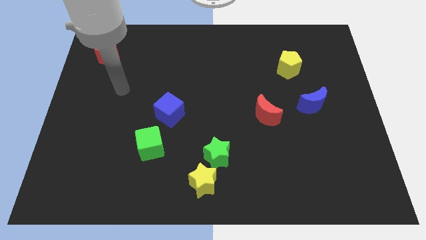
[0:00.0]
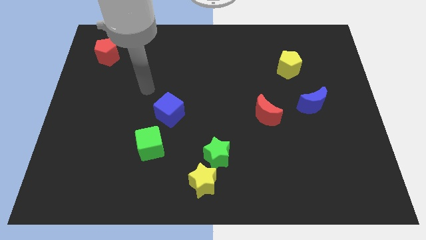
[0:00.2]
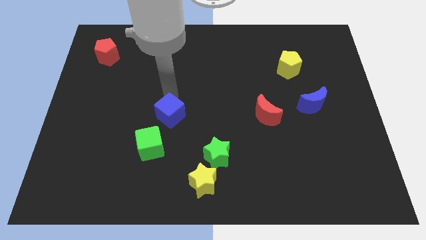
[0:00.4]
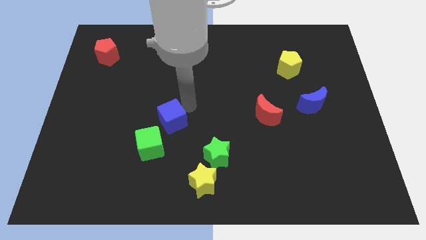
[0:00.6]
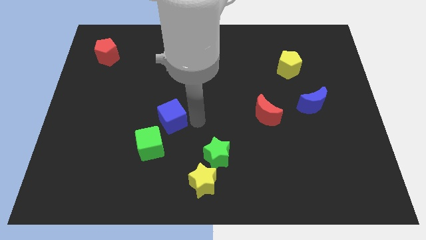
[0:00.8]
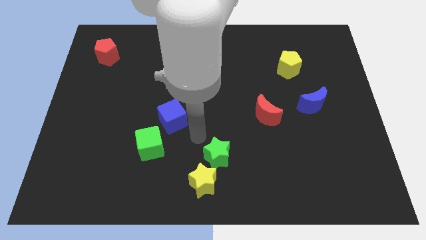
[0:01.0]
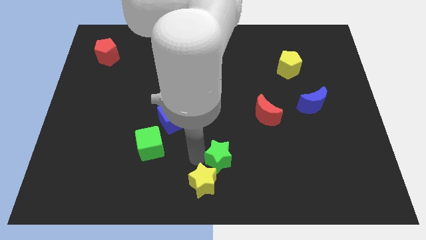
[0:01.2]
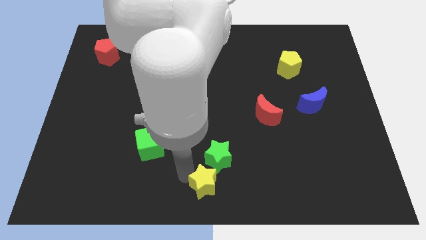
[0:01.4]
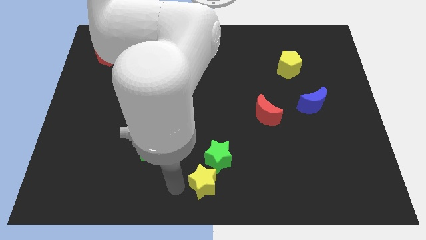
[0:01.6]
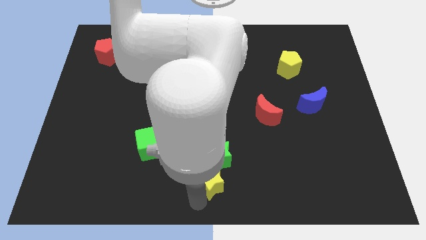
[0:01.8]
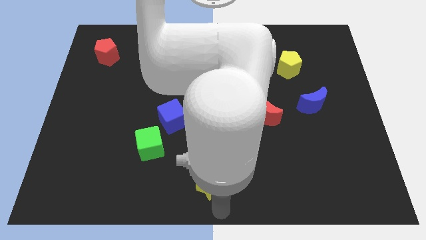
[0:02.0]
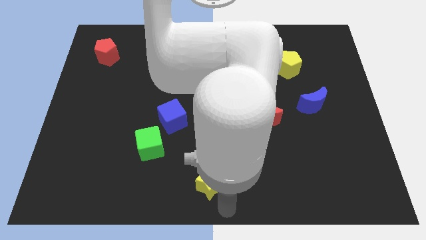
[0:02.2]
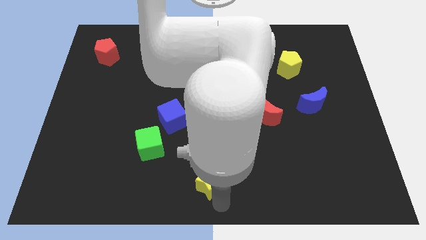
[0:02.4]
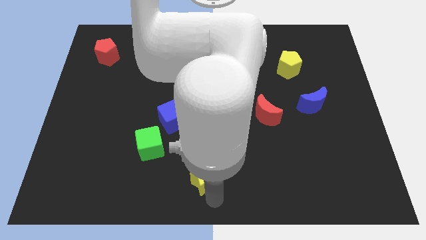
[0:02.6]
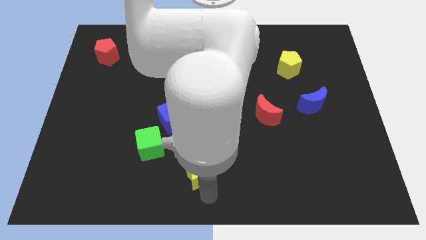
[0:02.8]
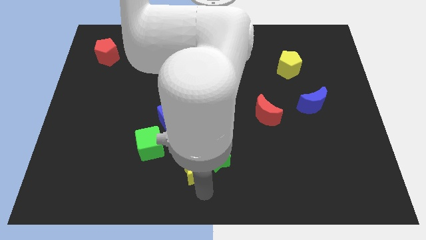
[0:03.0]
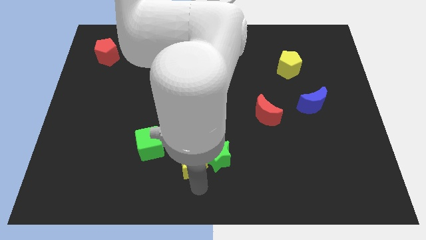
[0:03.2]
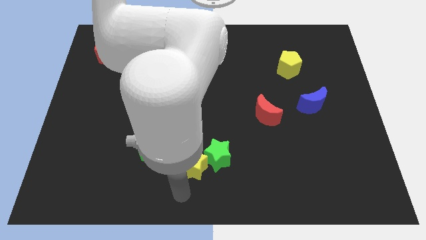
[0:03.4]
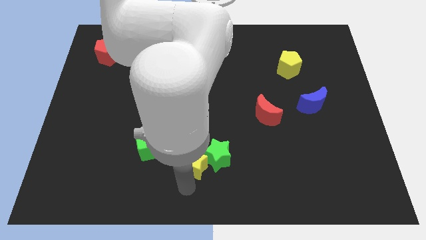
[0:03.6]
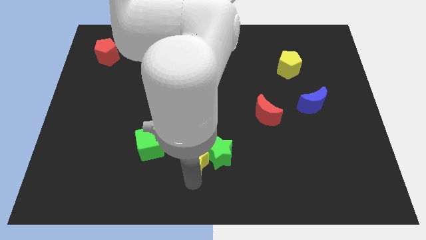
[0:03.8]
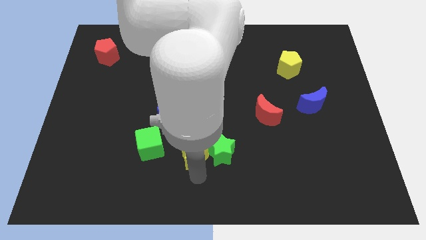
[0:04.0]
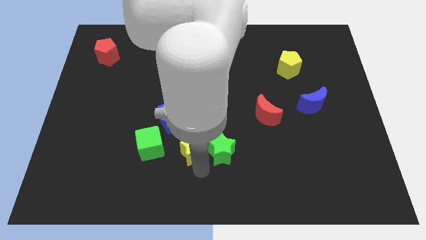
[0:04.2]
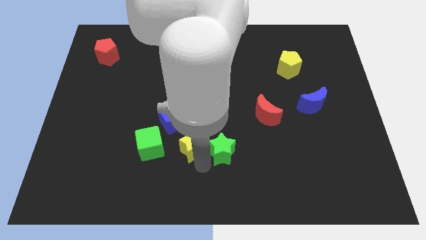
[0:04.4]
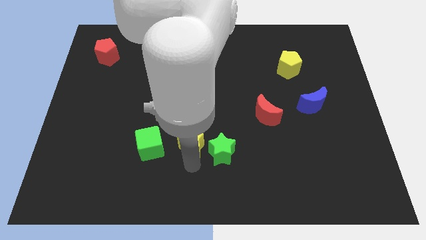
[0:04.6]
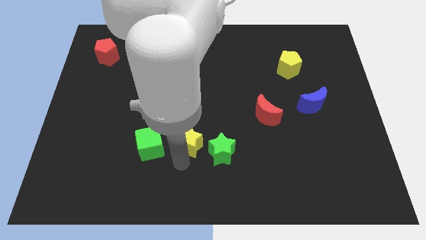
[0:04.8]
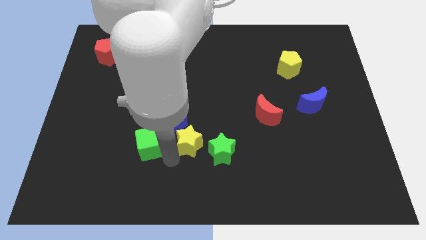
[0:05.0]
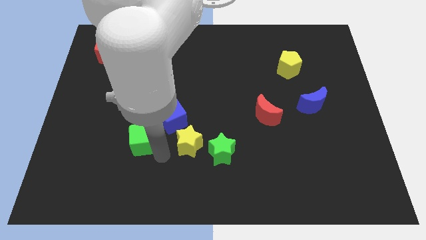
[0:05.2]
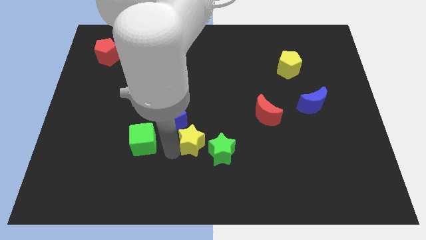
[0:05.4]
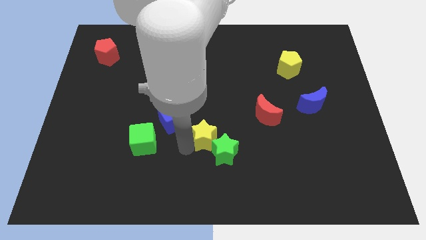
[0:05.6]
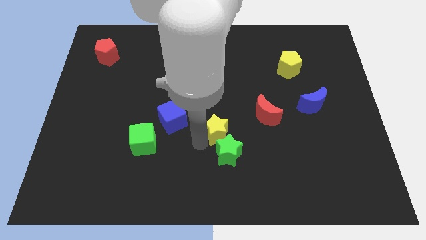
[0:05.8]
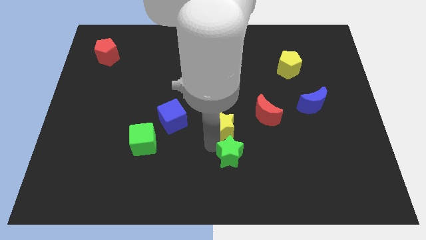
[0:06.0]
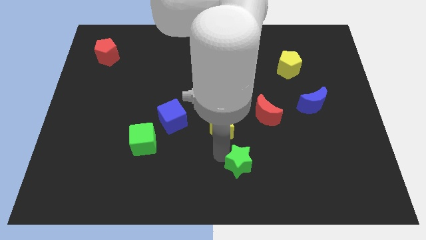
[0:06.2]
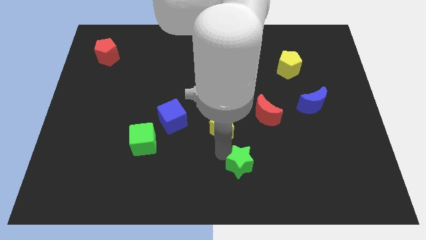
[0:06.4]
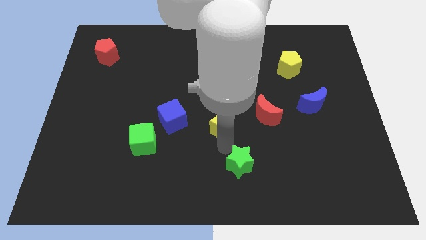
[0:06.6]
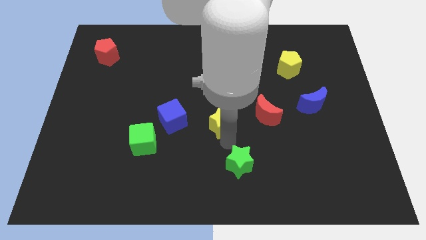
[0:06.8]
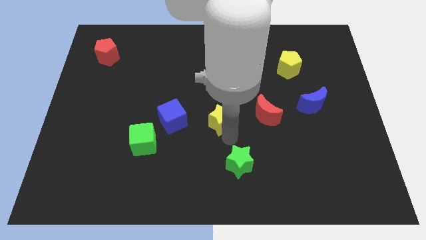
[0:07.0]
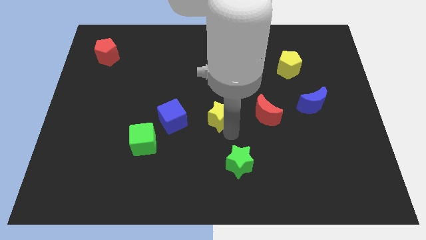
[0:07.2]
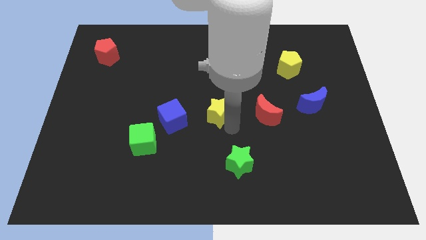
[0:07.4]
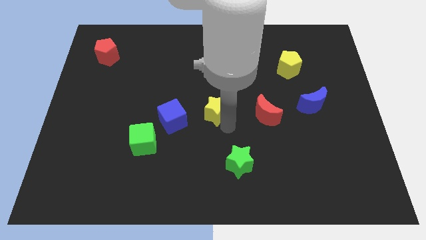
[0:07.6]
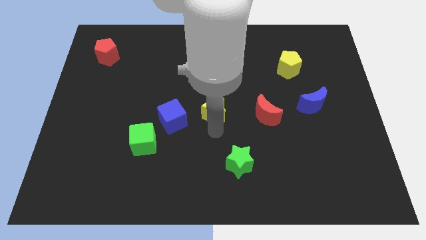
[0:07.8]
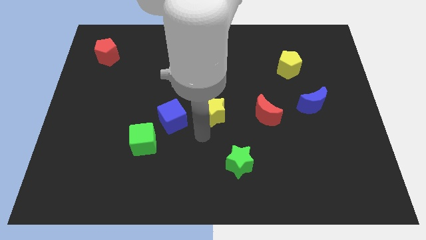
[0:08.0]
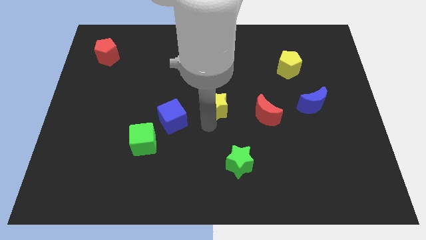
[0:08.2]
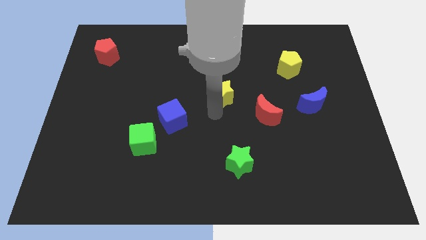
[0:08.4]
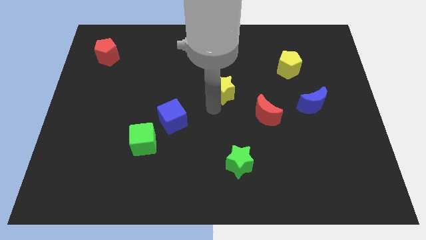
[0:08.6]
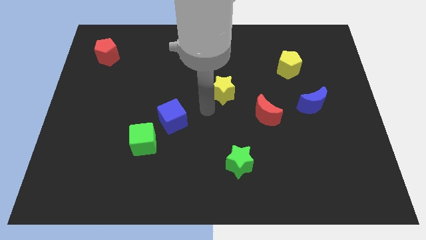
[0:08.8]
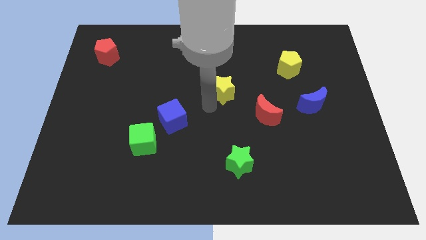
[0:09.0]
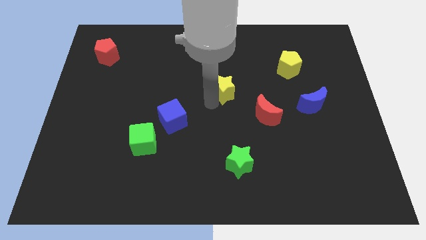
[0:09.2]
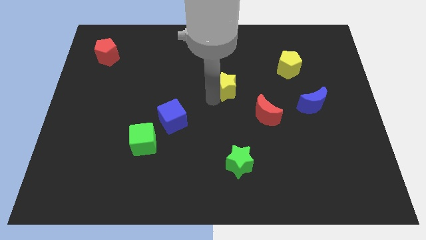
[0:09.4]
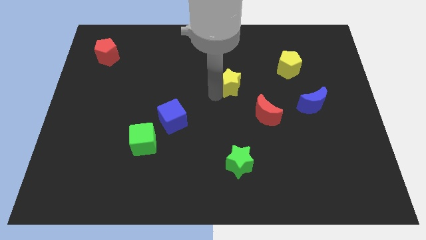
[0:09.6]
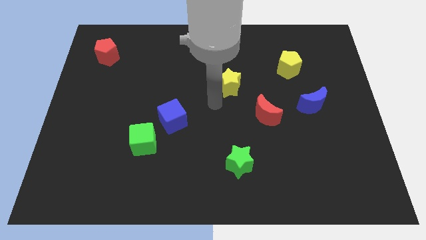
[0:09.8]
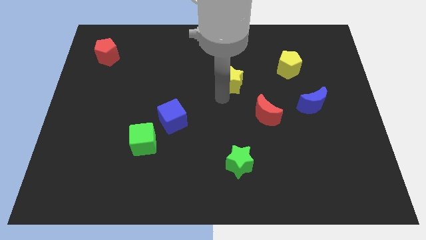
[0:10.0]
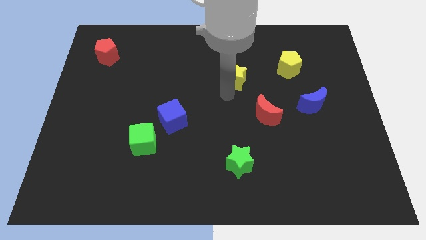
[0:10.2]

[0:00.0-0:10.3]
slide the yellow star just left of the yellow pentagon

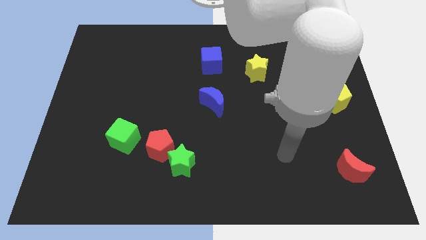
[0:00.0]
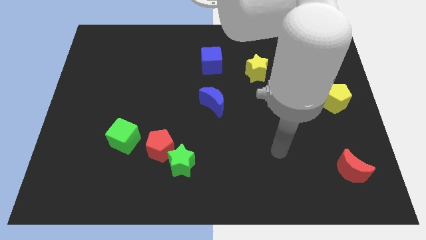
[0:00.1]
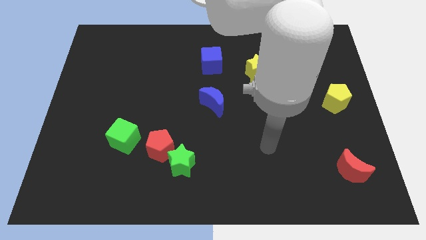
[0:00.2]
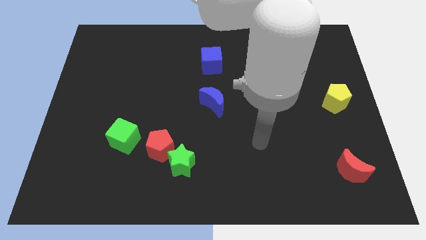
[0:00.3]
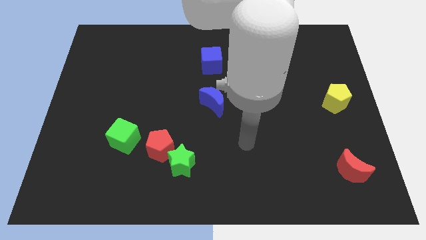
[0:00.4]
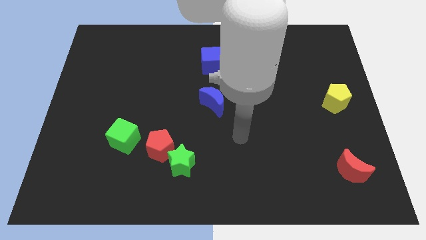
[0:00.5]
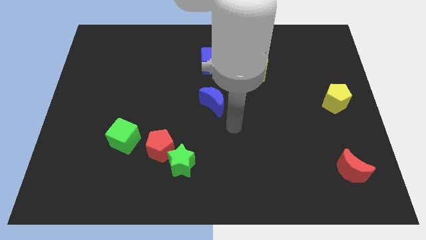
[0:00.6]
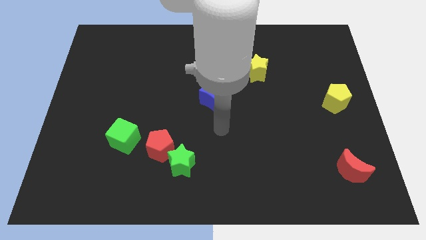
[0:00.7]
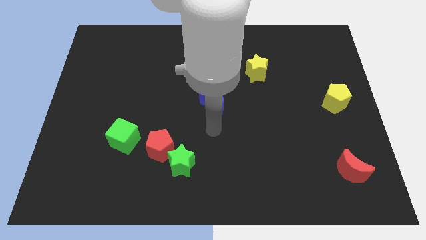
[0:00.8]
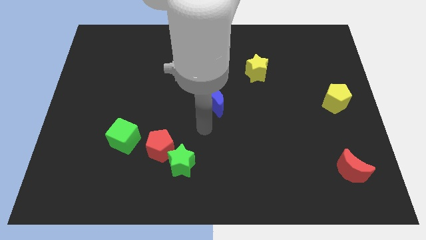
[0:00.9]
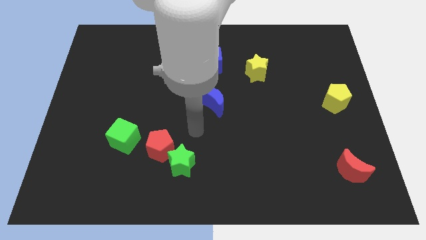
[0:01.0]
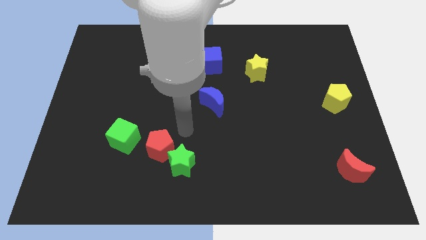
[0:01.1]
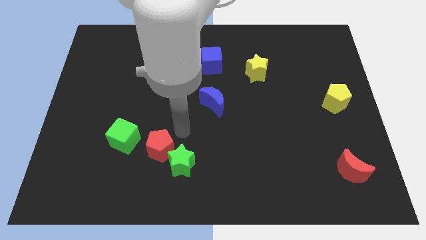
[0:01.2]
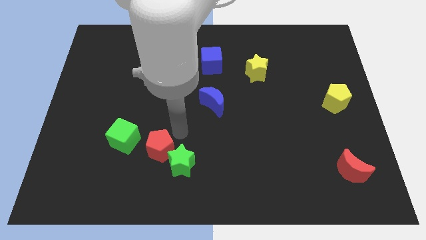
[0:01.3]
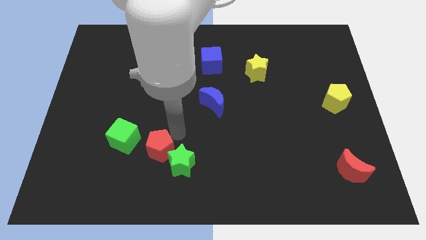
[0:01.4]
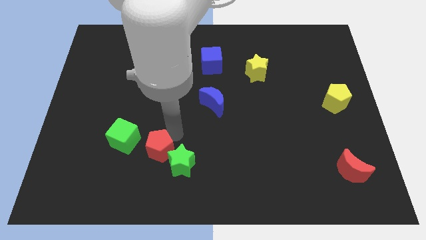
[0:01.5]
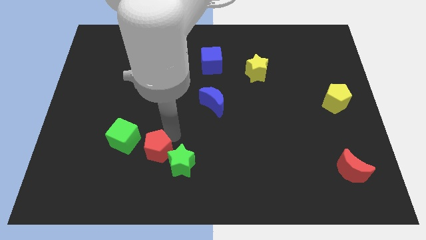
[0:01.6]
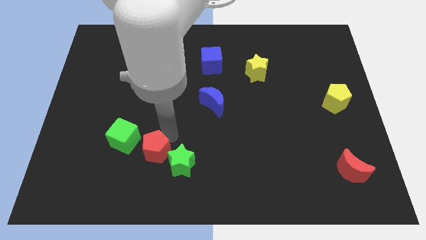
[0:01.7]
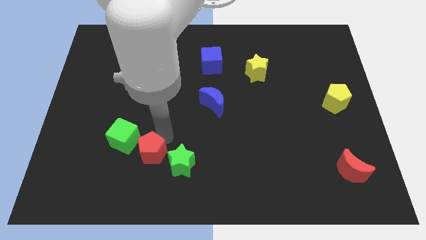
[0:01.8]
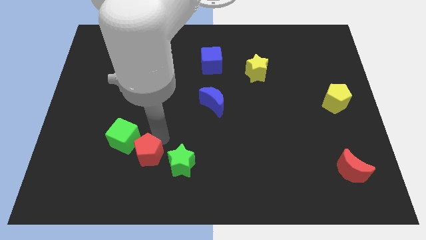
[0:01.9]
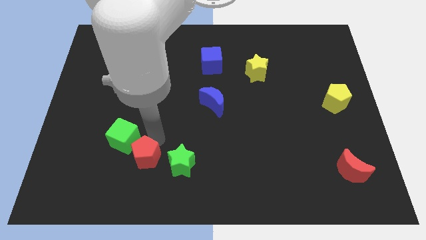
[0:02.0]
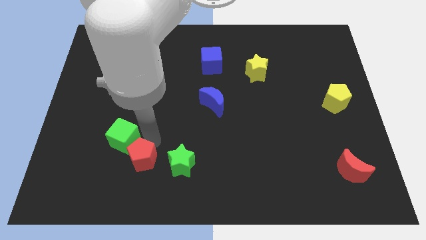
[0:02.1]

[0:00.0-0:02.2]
push the red pentagon to the bottom side of the green cube
